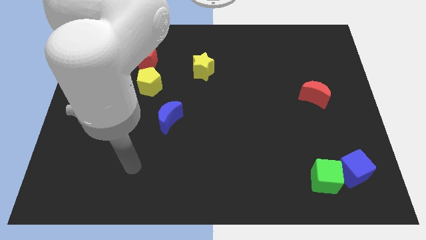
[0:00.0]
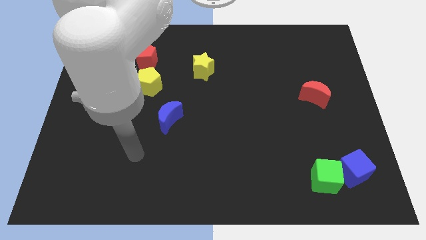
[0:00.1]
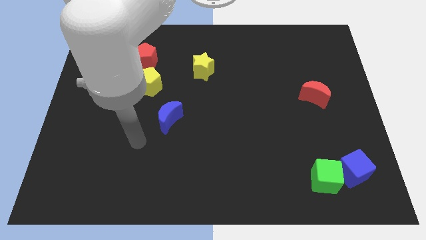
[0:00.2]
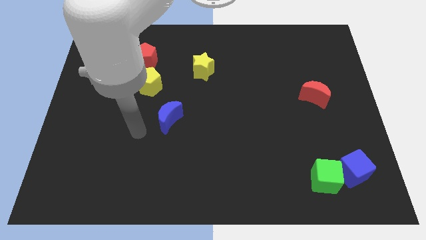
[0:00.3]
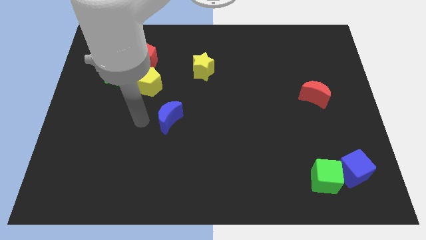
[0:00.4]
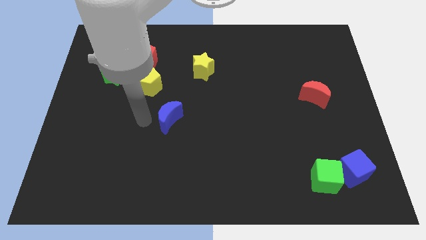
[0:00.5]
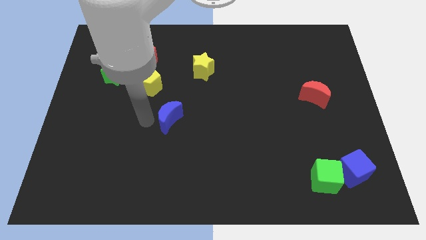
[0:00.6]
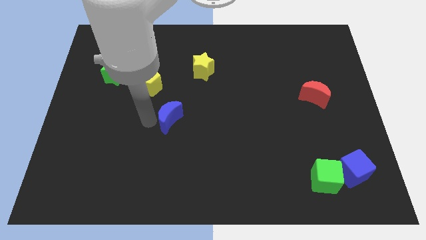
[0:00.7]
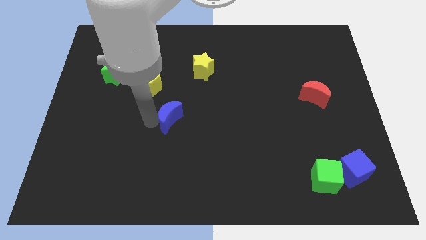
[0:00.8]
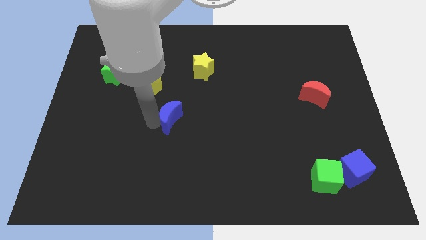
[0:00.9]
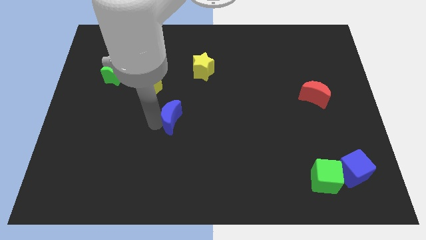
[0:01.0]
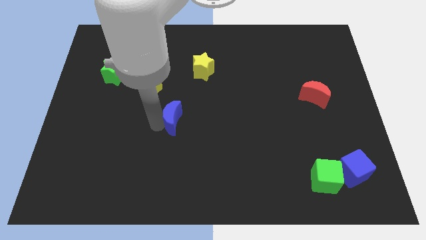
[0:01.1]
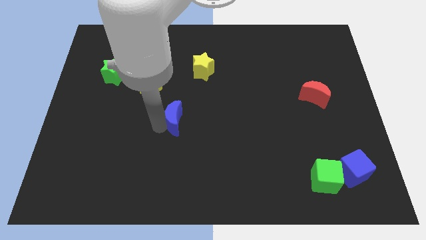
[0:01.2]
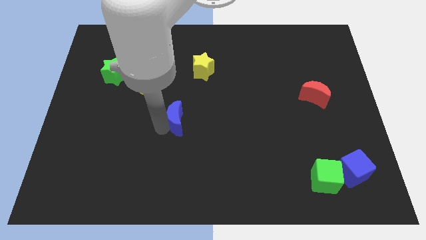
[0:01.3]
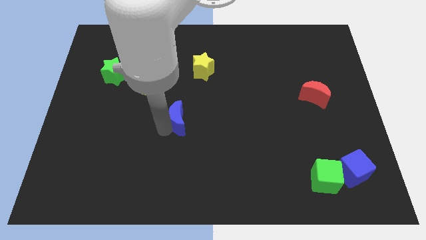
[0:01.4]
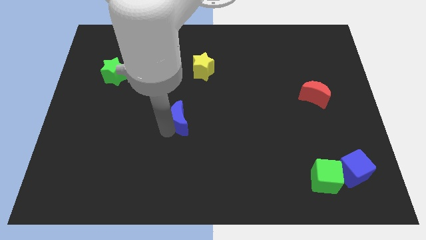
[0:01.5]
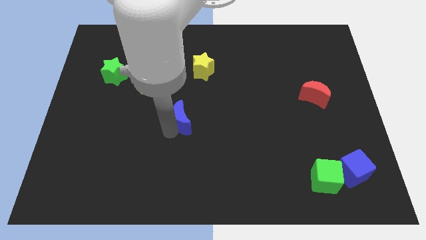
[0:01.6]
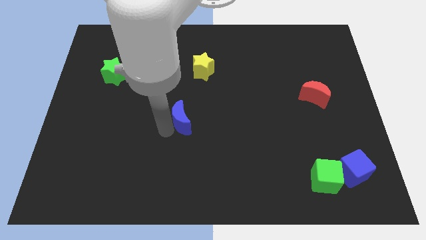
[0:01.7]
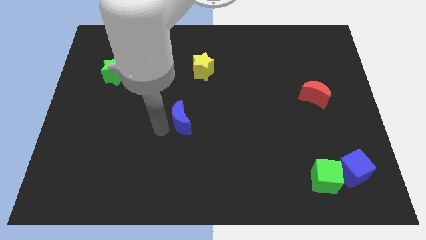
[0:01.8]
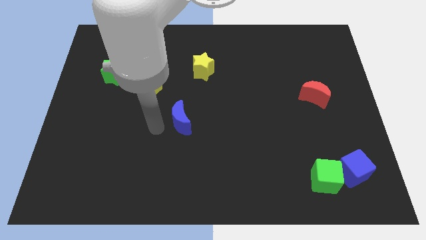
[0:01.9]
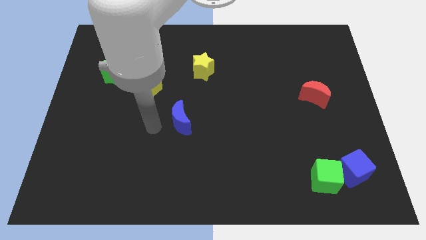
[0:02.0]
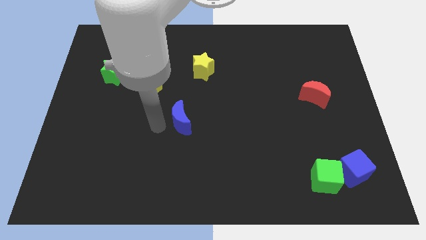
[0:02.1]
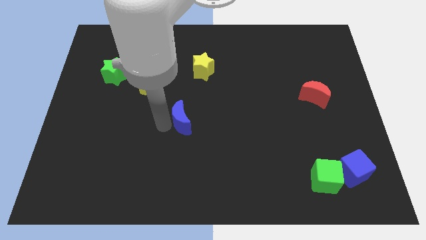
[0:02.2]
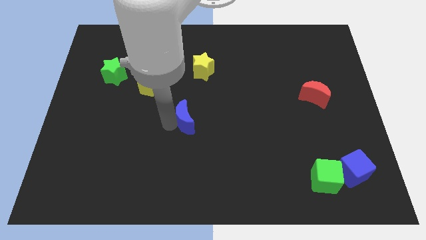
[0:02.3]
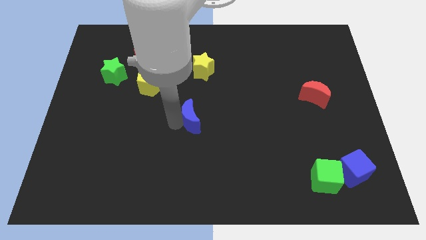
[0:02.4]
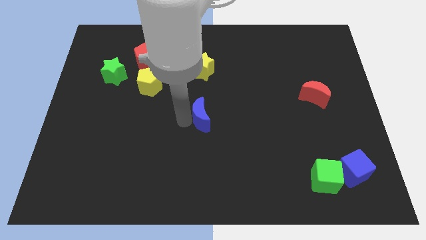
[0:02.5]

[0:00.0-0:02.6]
slightly slide the blue moon to the right

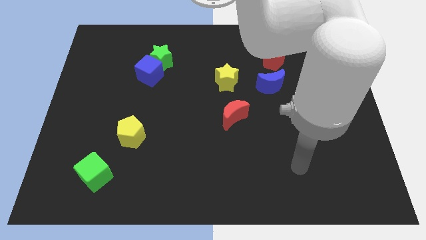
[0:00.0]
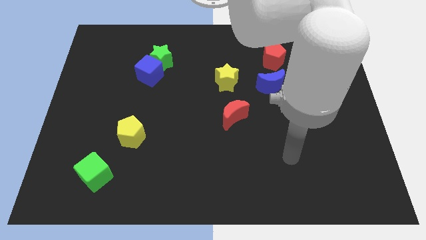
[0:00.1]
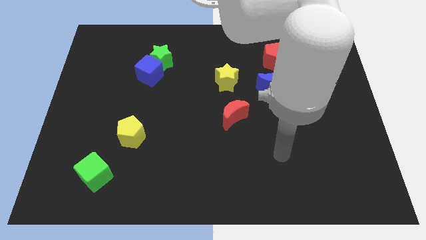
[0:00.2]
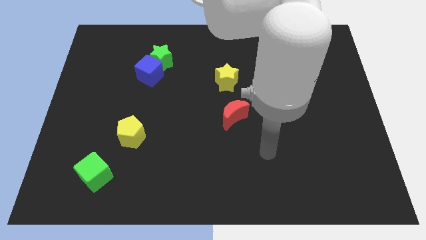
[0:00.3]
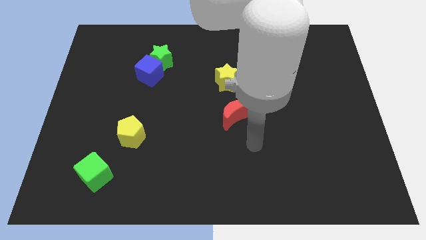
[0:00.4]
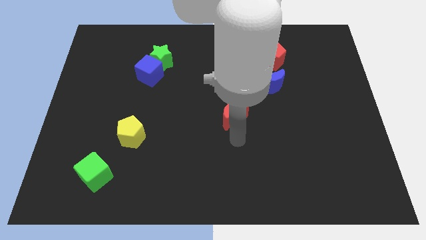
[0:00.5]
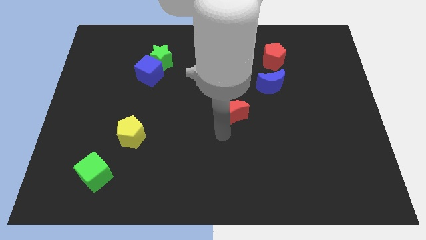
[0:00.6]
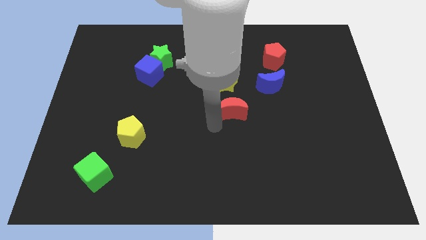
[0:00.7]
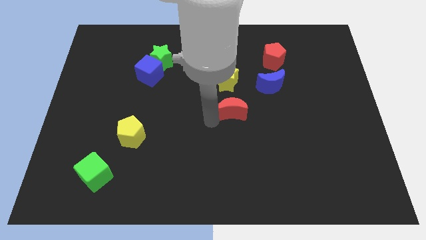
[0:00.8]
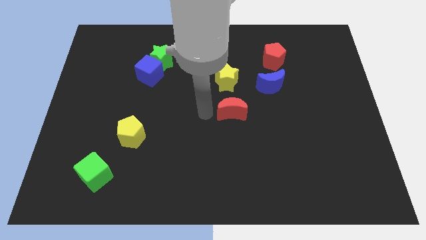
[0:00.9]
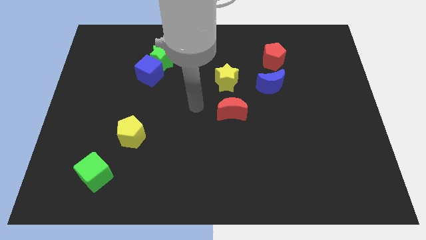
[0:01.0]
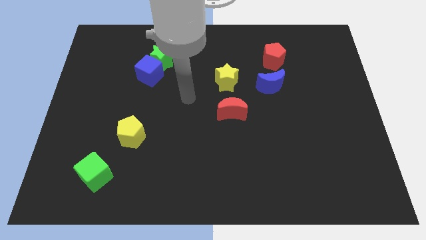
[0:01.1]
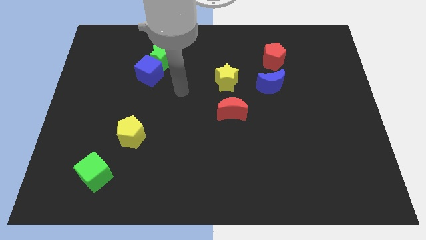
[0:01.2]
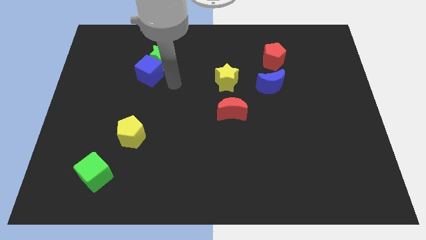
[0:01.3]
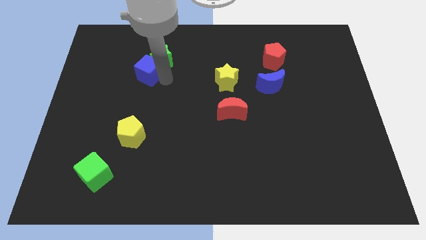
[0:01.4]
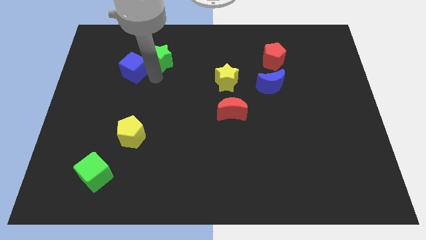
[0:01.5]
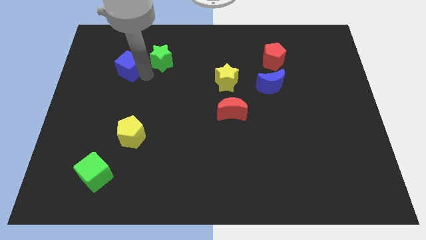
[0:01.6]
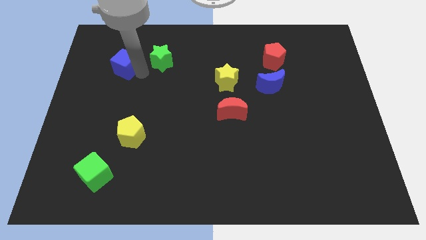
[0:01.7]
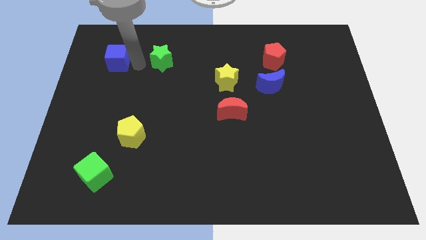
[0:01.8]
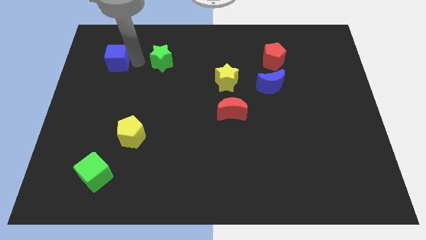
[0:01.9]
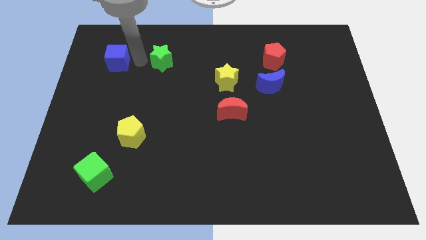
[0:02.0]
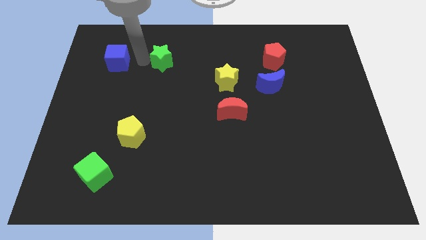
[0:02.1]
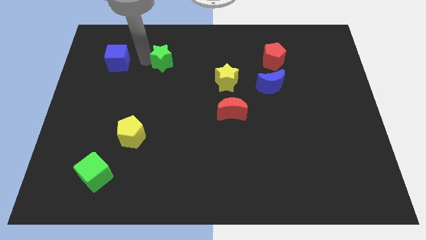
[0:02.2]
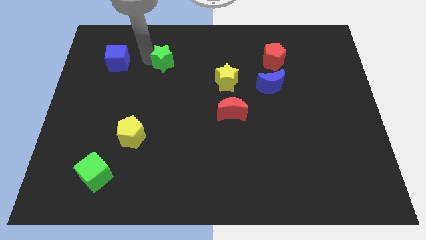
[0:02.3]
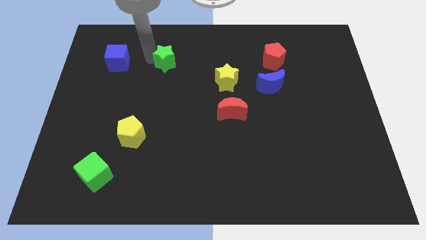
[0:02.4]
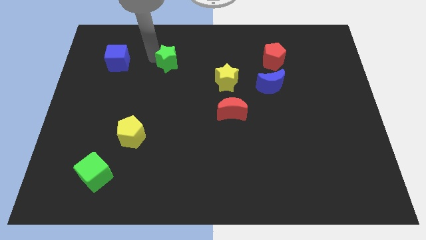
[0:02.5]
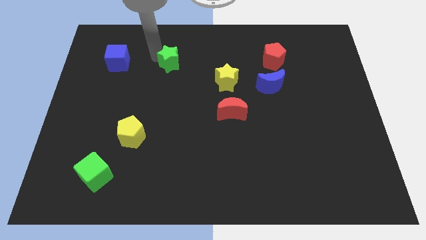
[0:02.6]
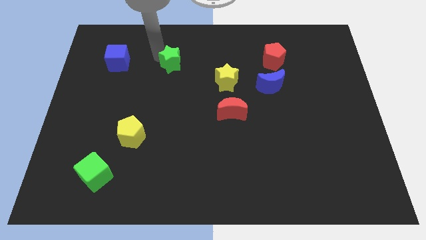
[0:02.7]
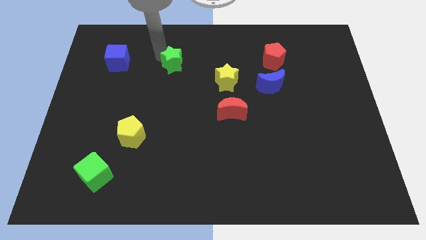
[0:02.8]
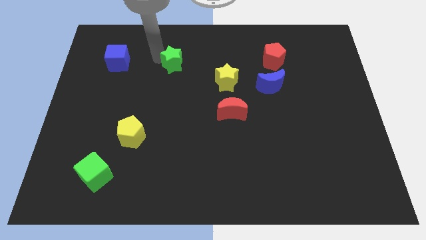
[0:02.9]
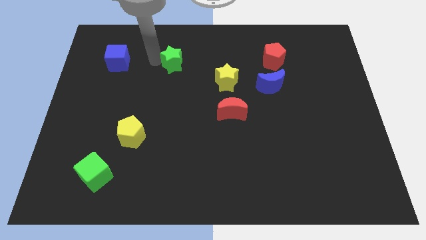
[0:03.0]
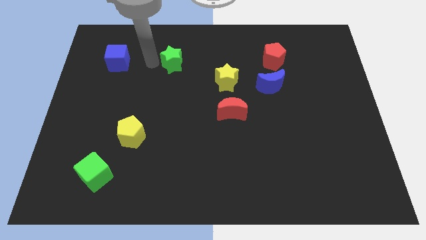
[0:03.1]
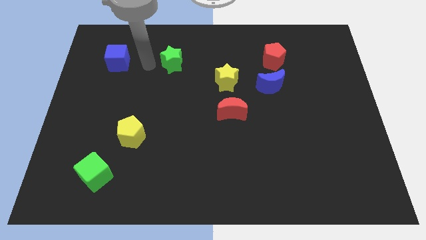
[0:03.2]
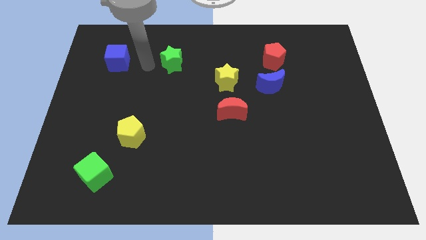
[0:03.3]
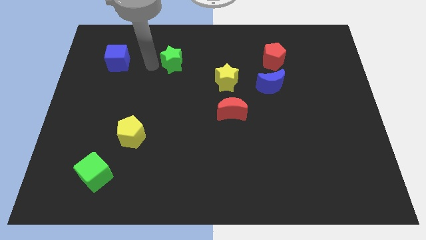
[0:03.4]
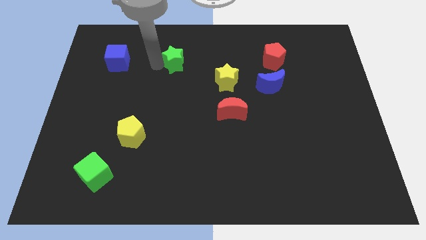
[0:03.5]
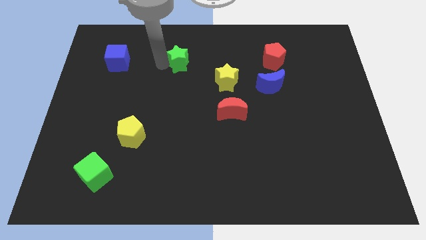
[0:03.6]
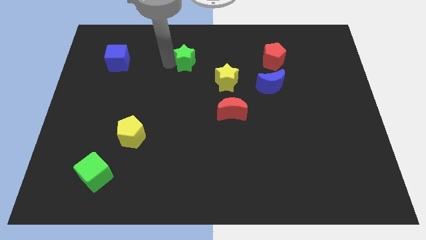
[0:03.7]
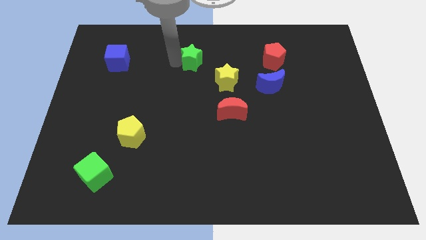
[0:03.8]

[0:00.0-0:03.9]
push the green star to the right a bit

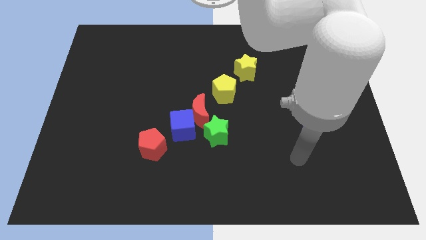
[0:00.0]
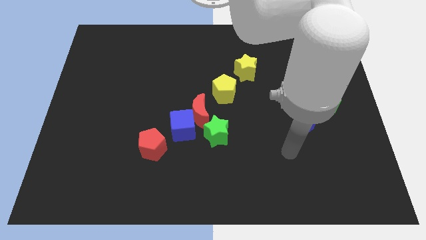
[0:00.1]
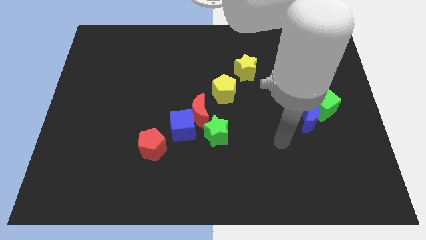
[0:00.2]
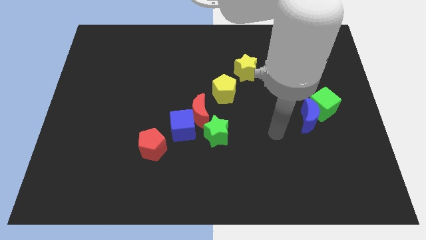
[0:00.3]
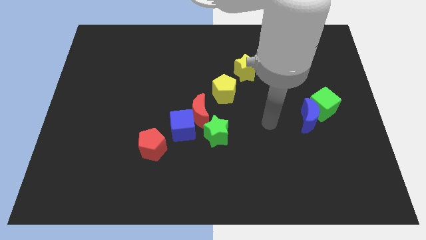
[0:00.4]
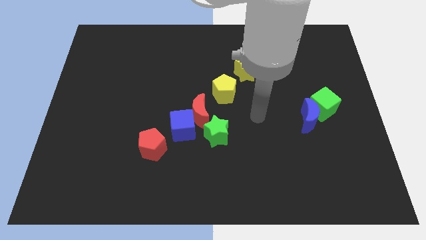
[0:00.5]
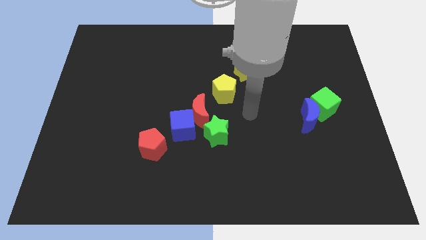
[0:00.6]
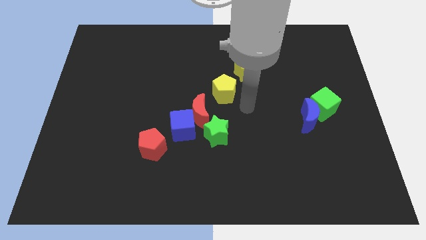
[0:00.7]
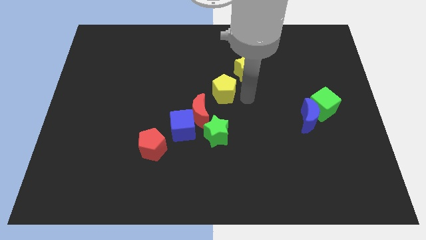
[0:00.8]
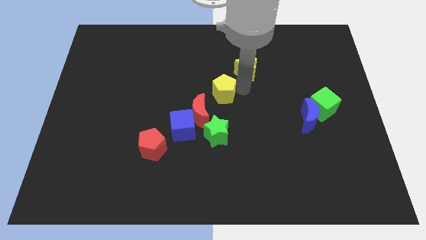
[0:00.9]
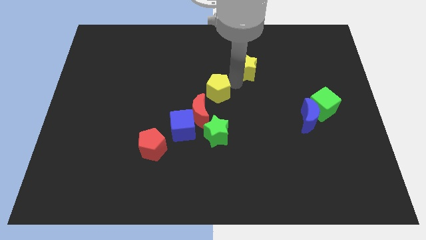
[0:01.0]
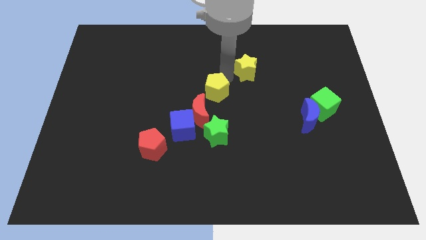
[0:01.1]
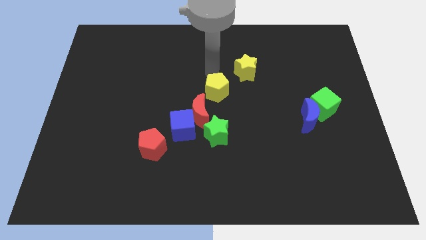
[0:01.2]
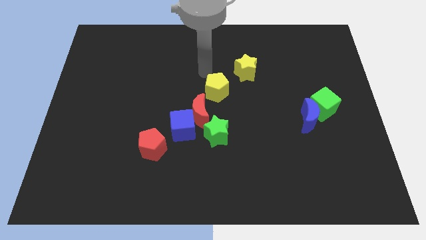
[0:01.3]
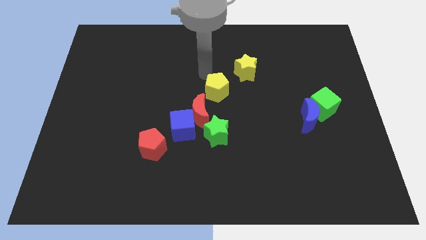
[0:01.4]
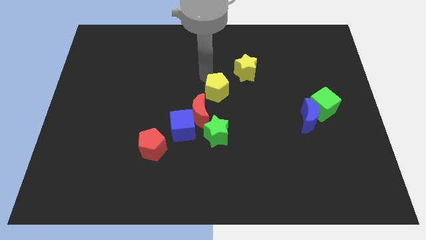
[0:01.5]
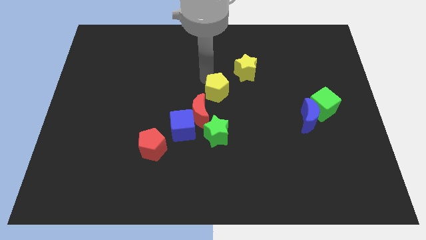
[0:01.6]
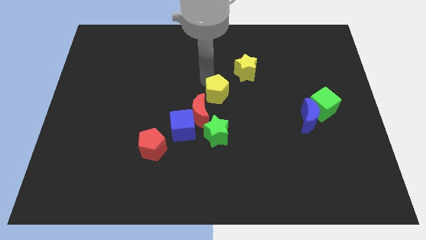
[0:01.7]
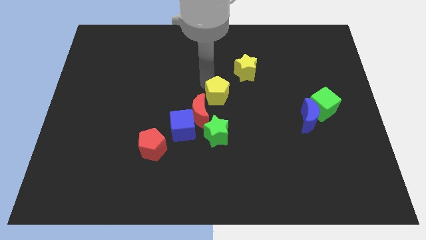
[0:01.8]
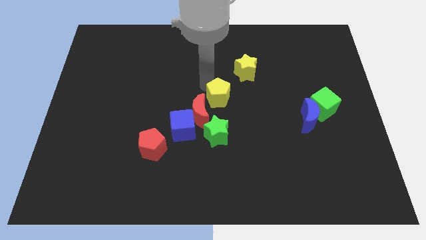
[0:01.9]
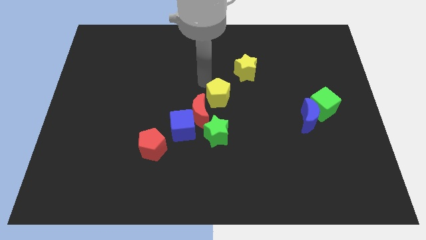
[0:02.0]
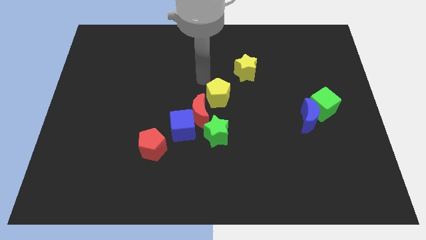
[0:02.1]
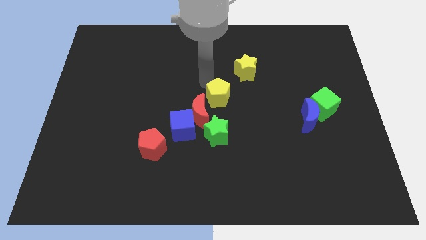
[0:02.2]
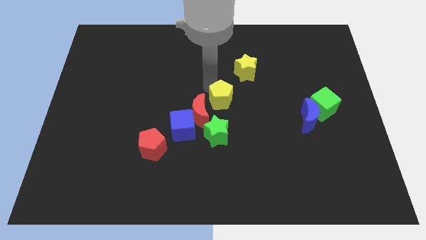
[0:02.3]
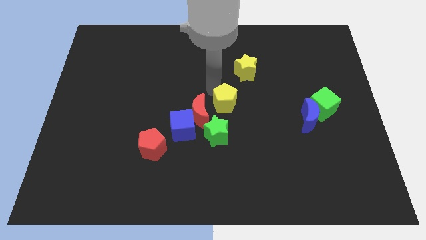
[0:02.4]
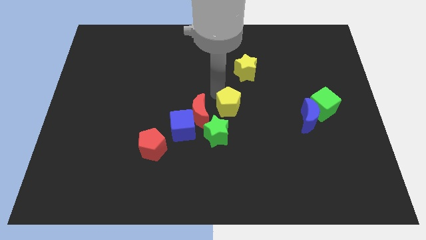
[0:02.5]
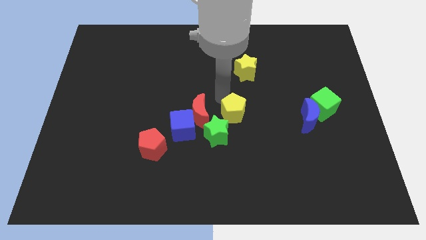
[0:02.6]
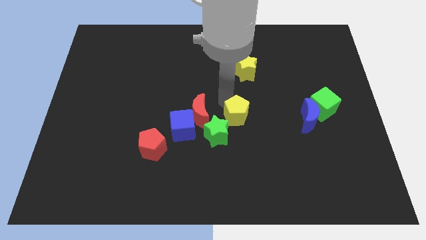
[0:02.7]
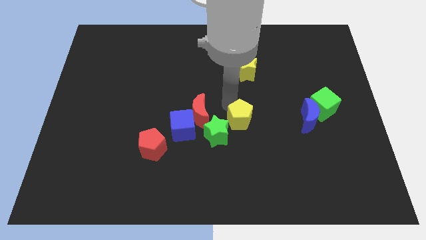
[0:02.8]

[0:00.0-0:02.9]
move the yellow pentagon a little down
